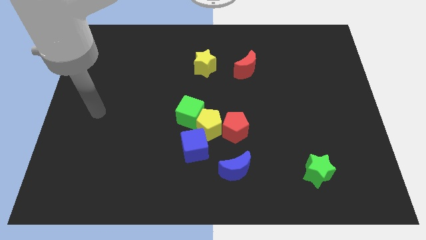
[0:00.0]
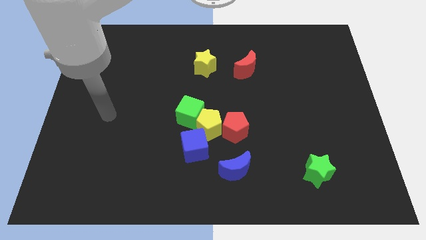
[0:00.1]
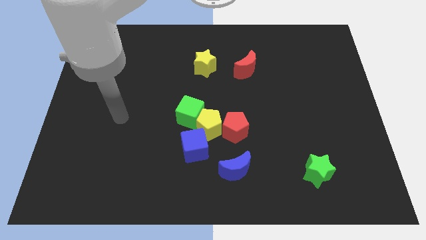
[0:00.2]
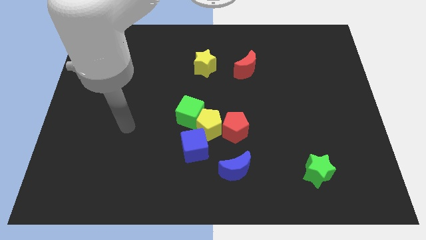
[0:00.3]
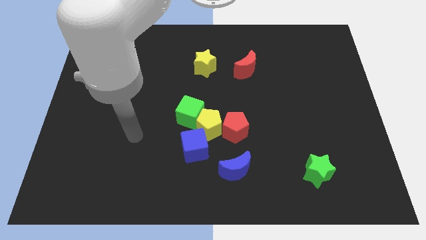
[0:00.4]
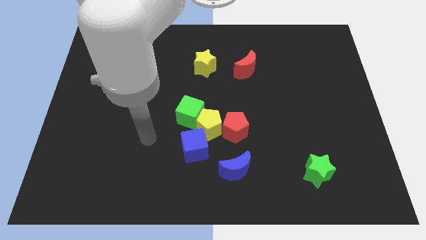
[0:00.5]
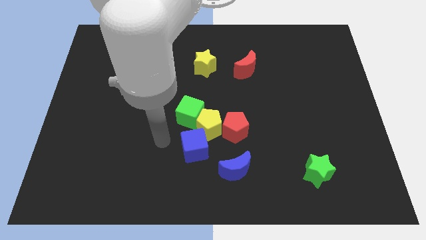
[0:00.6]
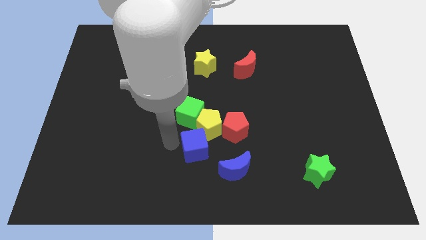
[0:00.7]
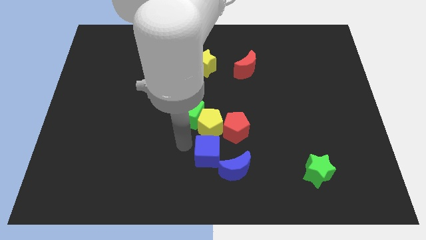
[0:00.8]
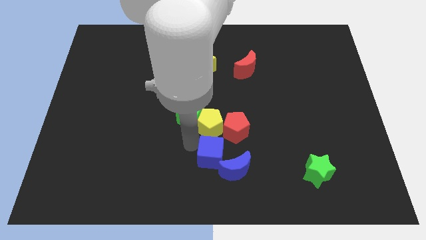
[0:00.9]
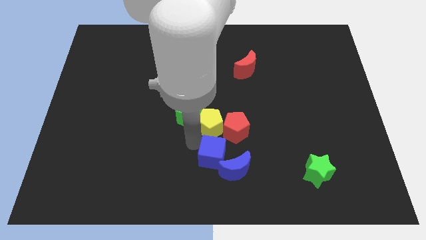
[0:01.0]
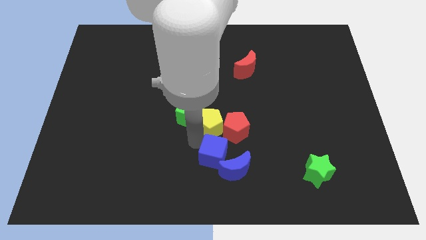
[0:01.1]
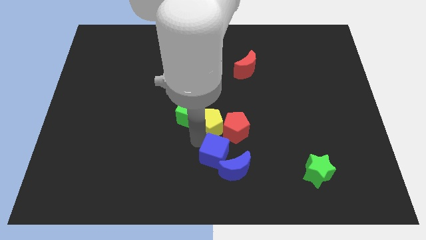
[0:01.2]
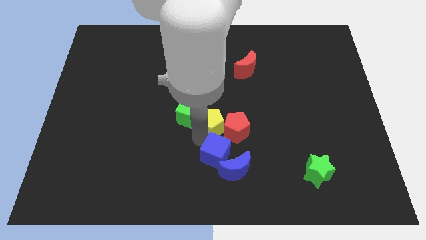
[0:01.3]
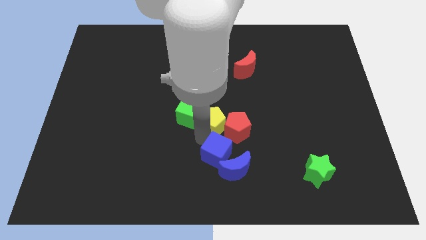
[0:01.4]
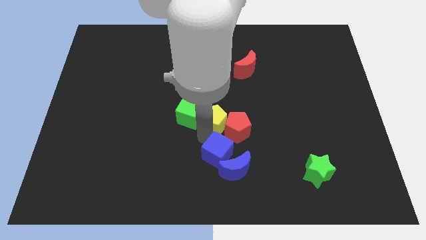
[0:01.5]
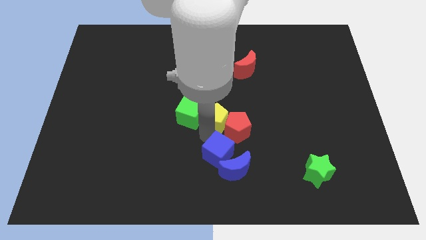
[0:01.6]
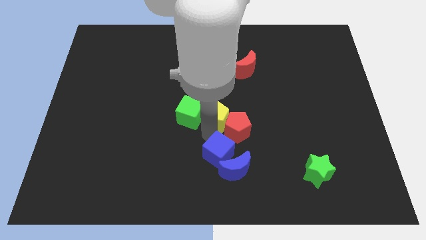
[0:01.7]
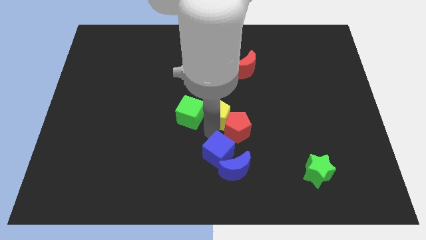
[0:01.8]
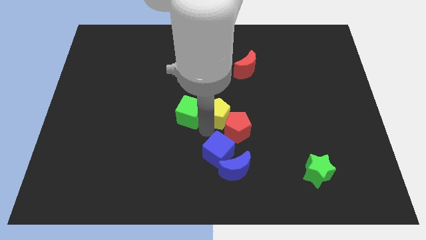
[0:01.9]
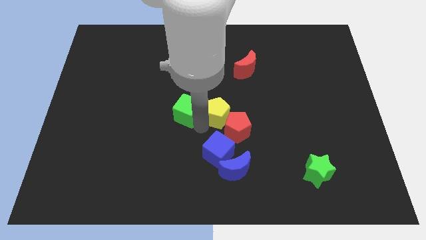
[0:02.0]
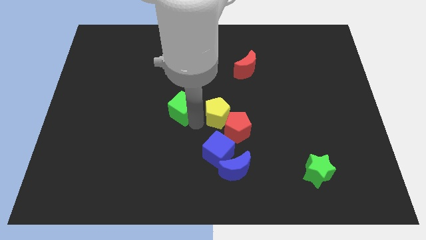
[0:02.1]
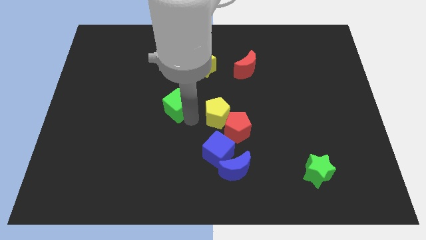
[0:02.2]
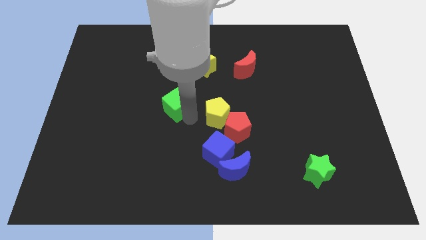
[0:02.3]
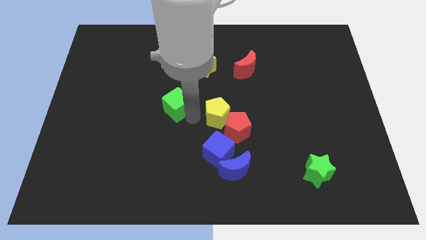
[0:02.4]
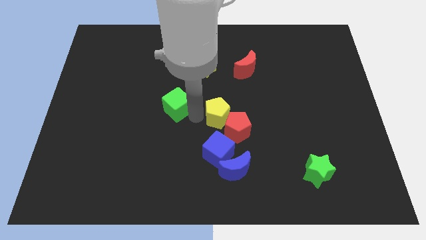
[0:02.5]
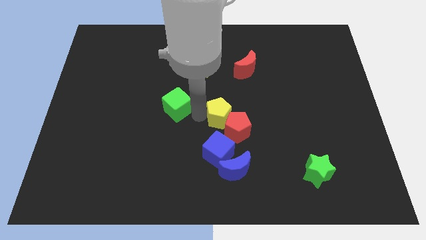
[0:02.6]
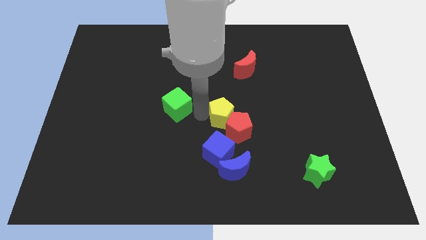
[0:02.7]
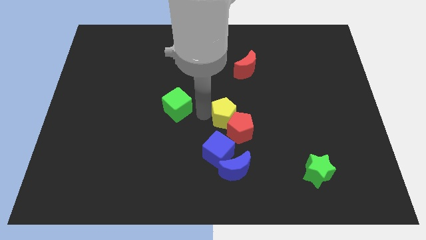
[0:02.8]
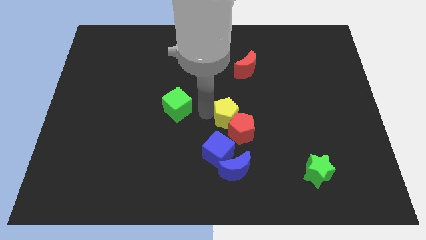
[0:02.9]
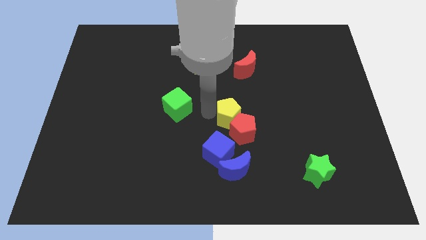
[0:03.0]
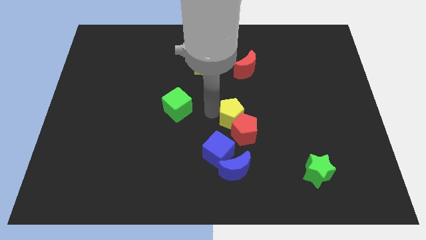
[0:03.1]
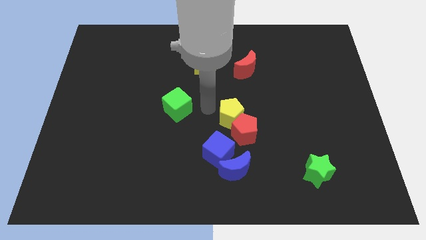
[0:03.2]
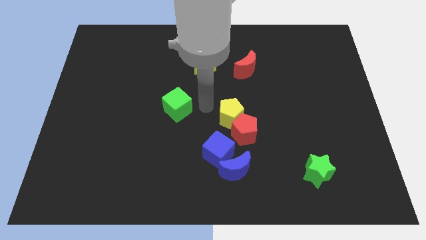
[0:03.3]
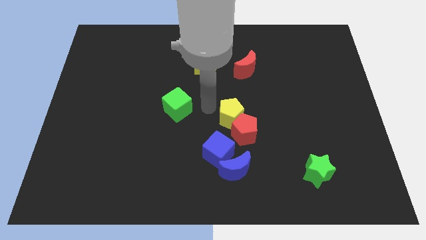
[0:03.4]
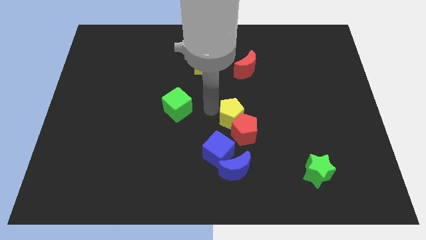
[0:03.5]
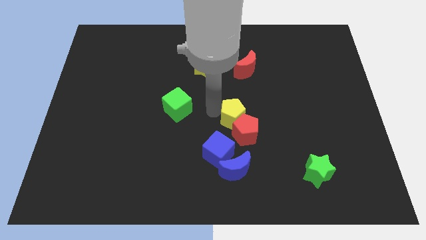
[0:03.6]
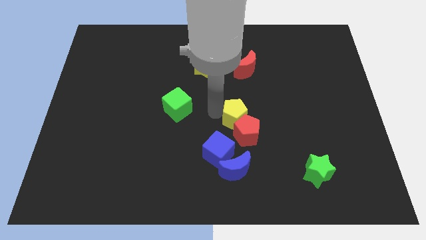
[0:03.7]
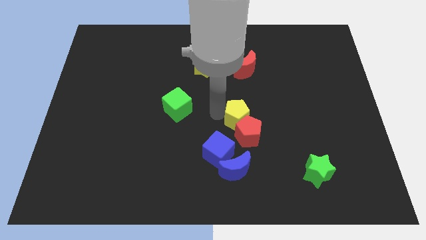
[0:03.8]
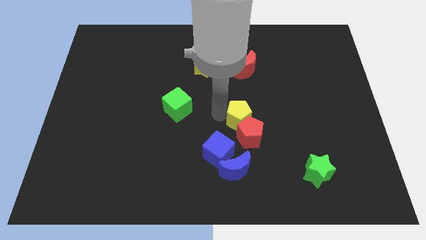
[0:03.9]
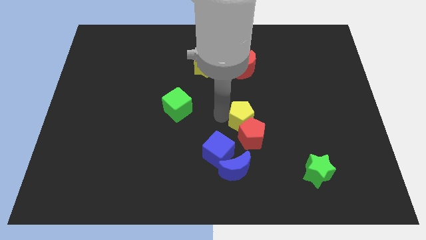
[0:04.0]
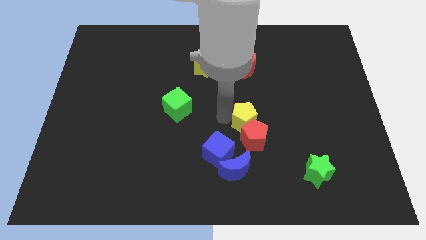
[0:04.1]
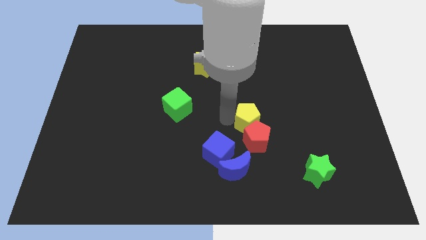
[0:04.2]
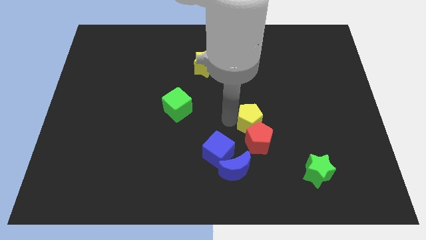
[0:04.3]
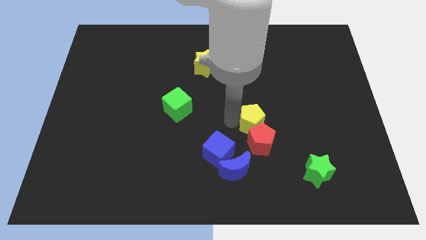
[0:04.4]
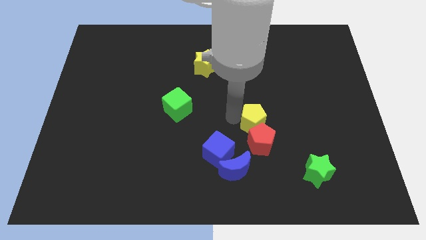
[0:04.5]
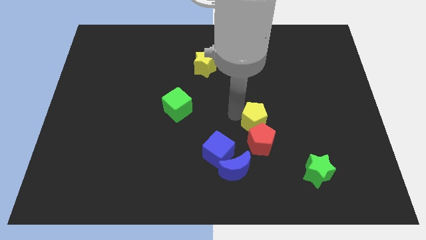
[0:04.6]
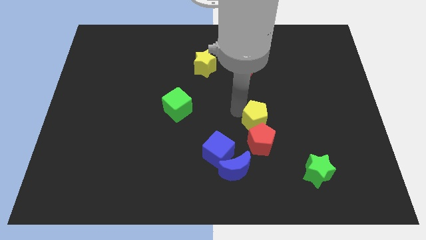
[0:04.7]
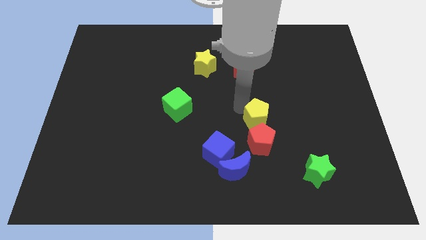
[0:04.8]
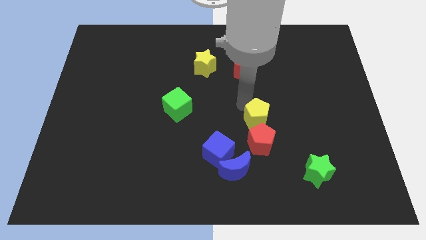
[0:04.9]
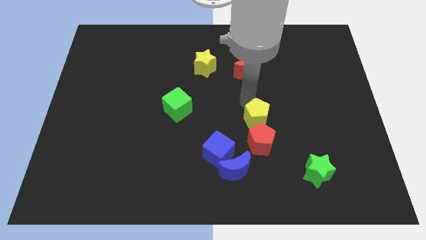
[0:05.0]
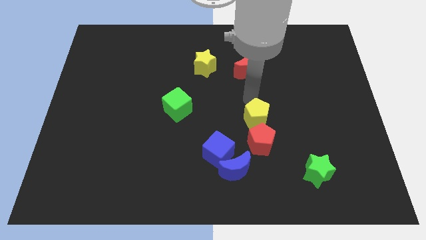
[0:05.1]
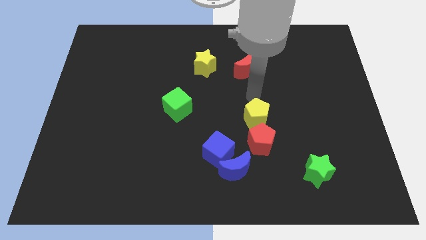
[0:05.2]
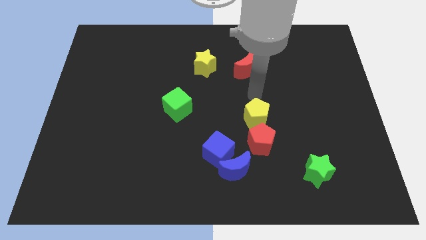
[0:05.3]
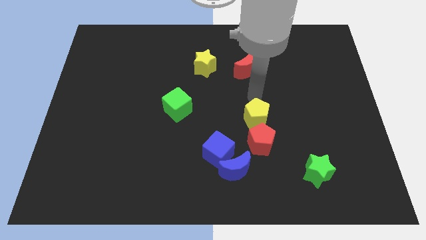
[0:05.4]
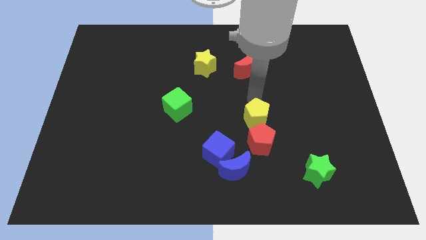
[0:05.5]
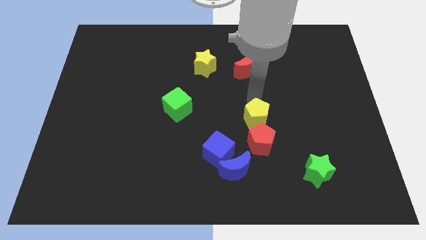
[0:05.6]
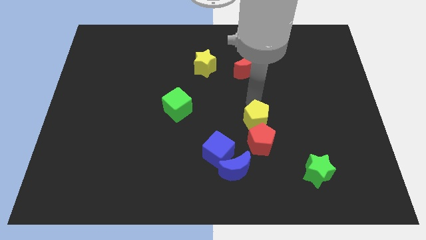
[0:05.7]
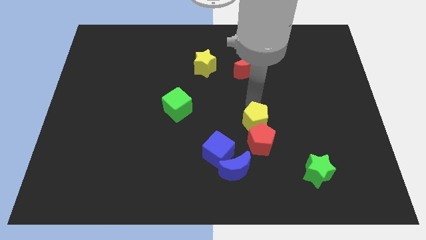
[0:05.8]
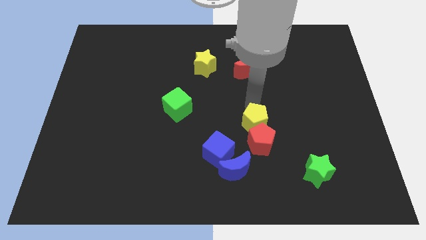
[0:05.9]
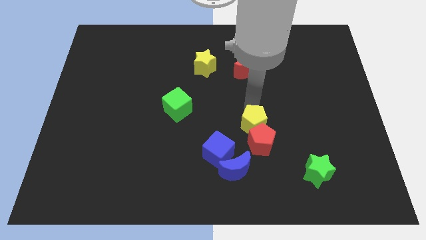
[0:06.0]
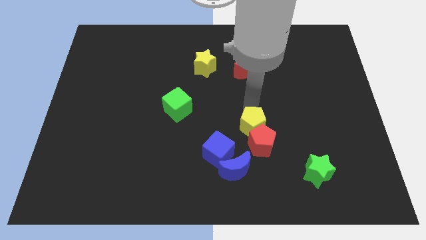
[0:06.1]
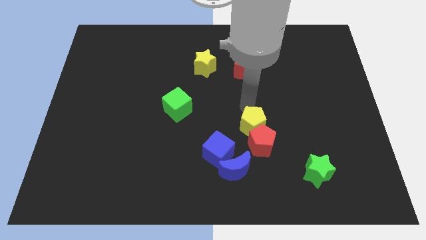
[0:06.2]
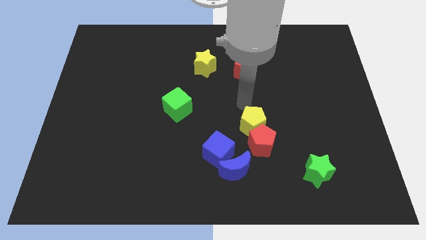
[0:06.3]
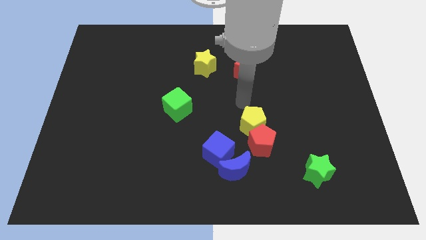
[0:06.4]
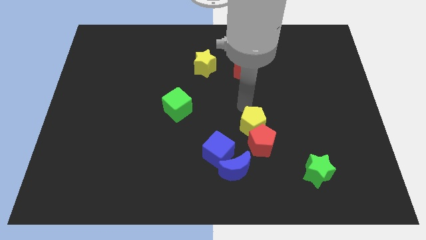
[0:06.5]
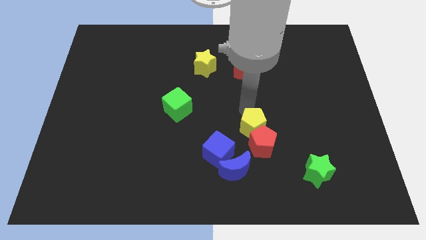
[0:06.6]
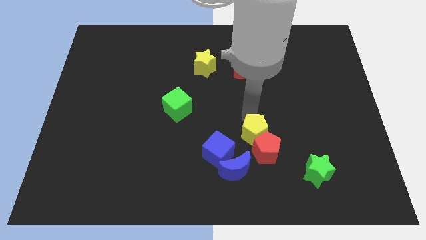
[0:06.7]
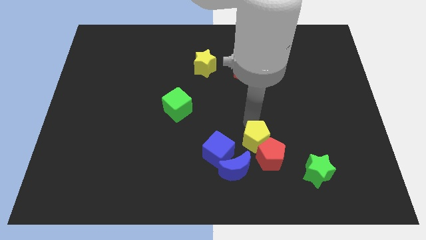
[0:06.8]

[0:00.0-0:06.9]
push the yellow pentagon downwards and right diagonally somewhat

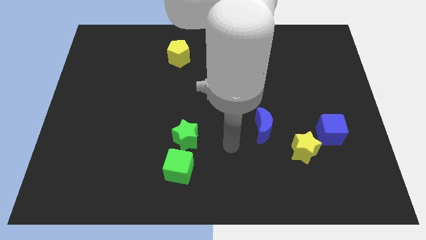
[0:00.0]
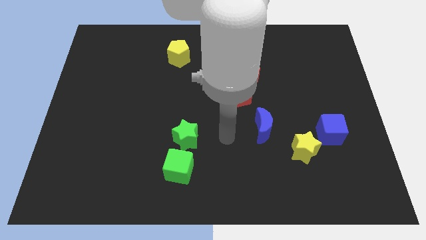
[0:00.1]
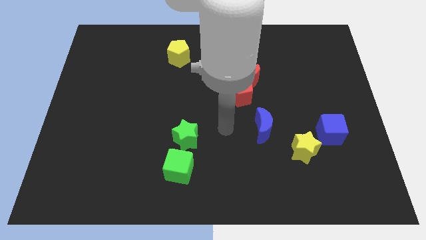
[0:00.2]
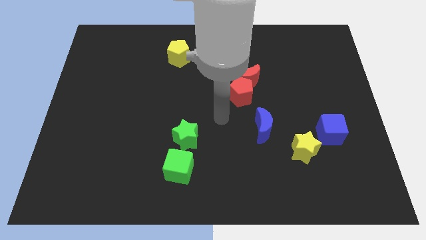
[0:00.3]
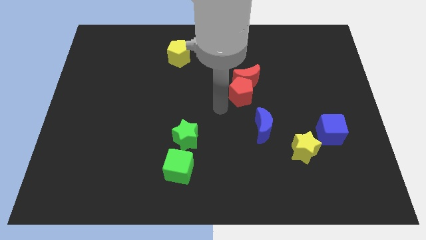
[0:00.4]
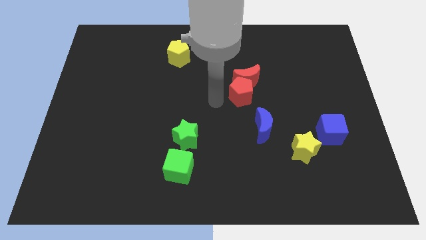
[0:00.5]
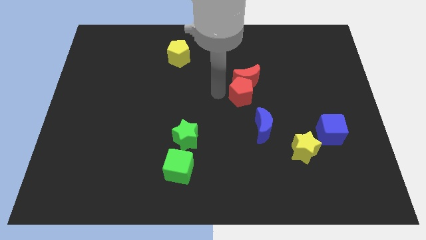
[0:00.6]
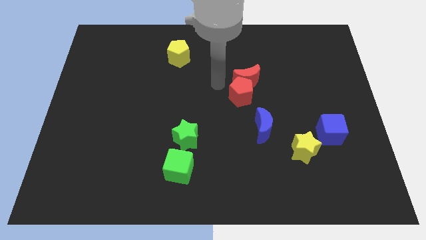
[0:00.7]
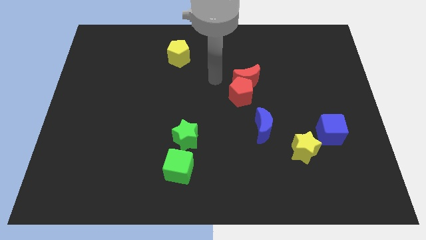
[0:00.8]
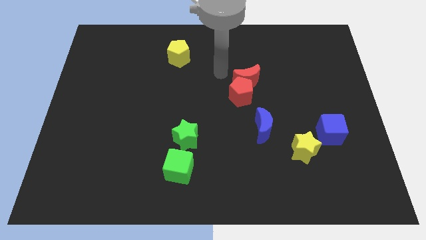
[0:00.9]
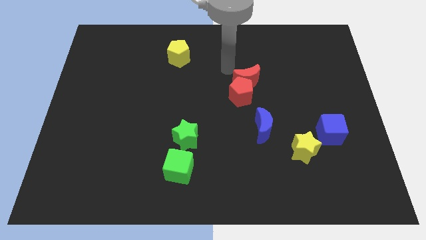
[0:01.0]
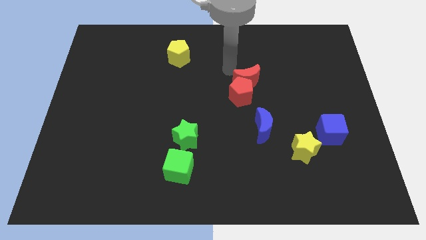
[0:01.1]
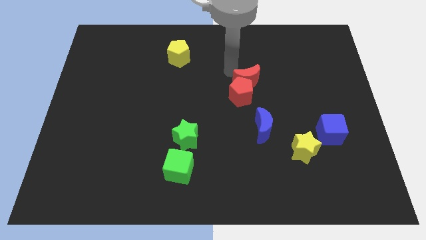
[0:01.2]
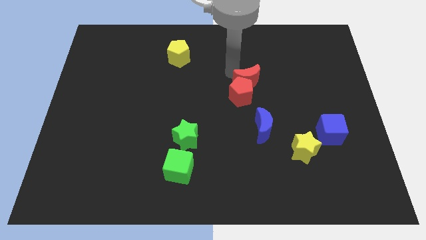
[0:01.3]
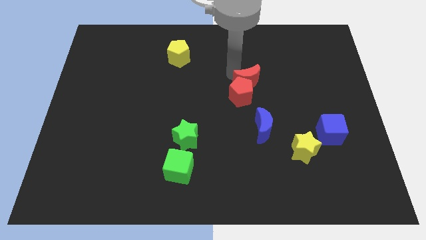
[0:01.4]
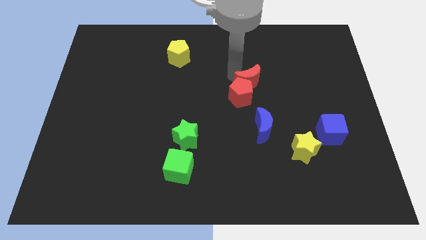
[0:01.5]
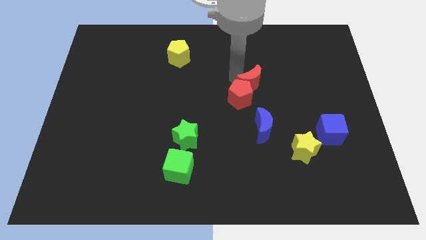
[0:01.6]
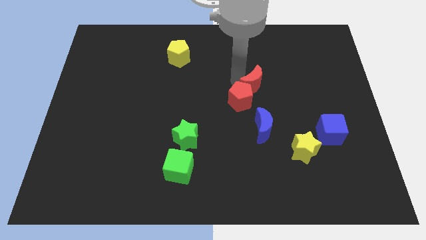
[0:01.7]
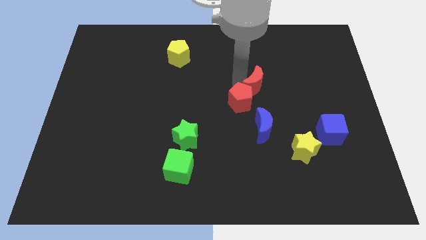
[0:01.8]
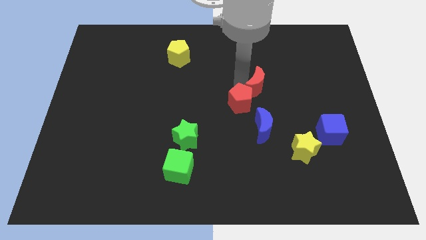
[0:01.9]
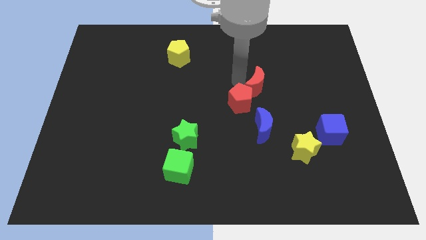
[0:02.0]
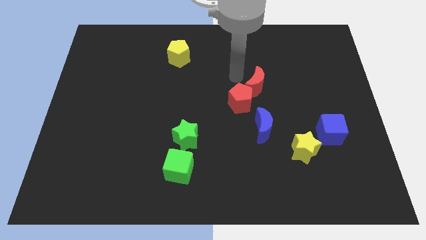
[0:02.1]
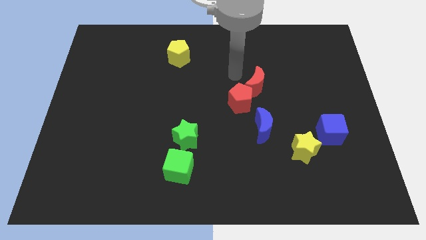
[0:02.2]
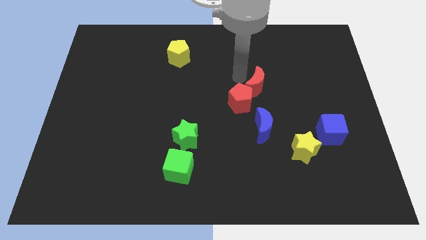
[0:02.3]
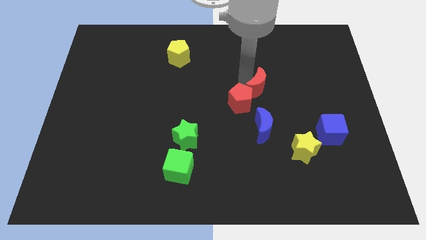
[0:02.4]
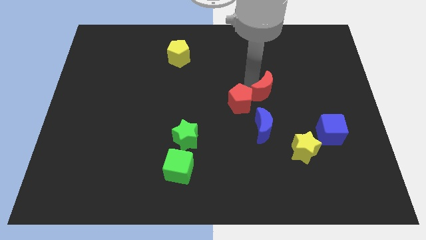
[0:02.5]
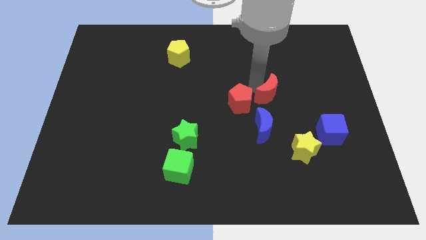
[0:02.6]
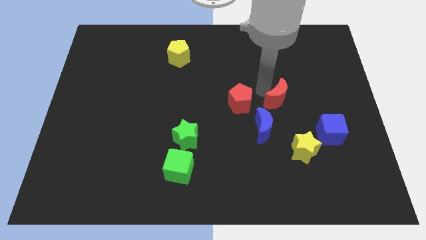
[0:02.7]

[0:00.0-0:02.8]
push the red moon somewhat down and then right
